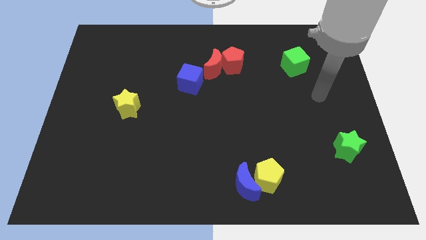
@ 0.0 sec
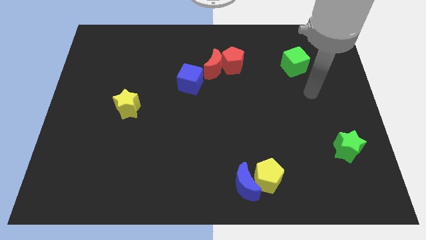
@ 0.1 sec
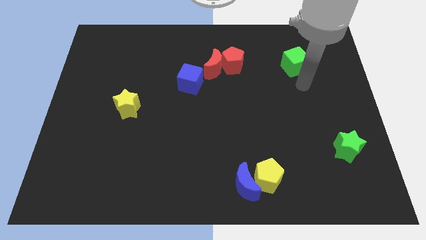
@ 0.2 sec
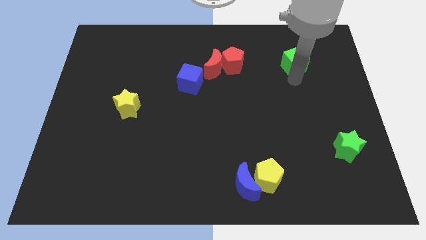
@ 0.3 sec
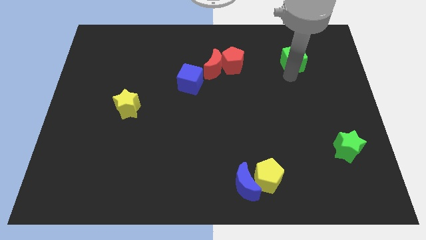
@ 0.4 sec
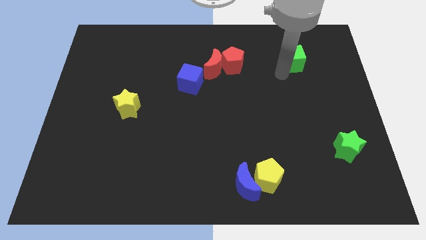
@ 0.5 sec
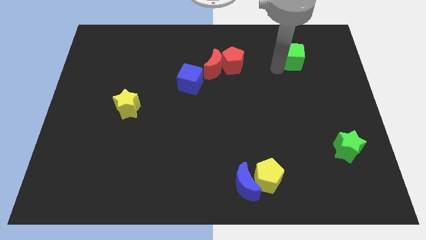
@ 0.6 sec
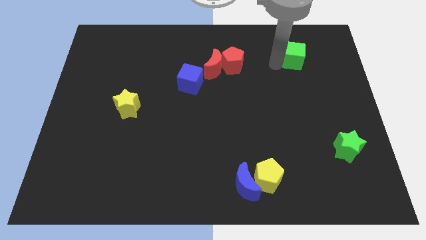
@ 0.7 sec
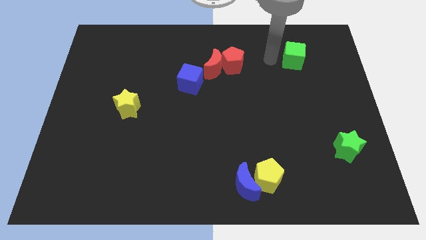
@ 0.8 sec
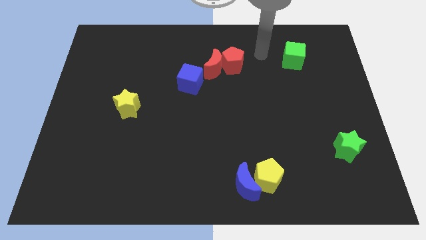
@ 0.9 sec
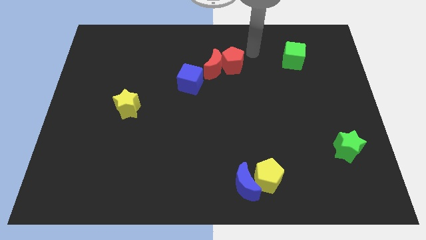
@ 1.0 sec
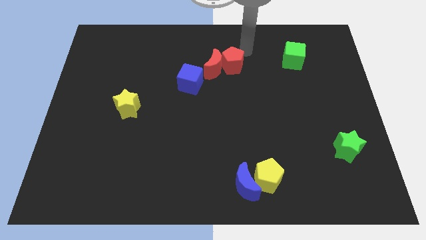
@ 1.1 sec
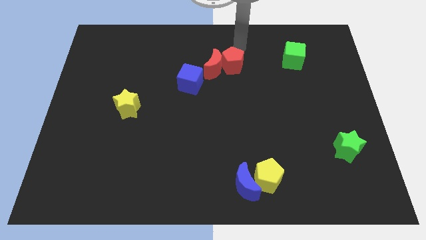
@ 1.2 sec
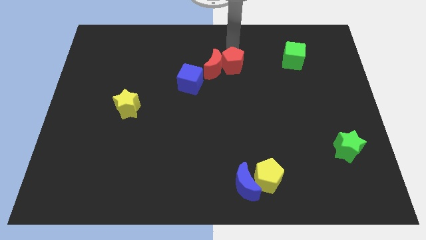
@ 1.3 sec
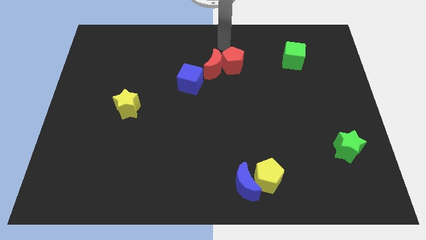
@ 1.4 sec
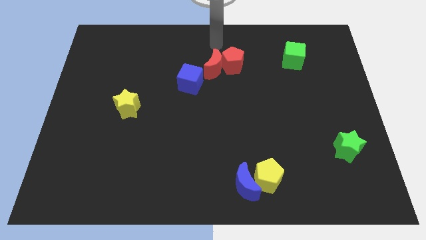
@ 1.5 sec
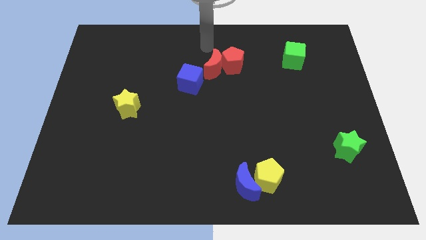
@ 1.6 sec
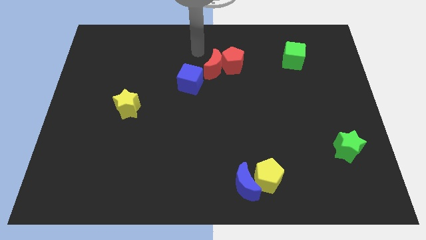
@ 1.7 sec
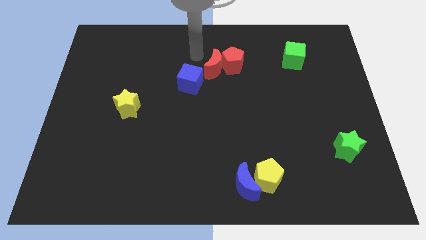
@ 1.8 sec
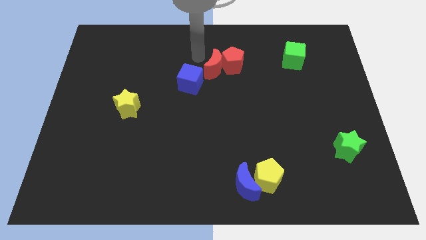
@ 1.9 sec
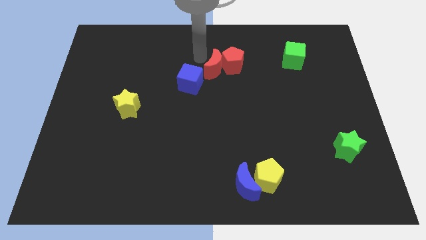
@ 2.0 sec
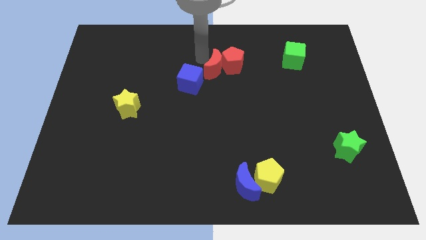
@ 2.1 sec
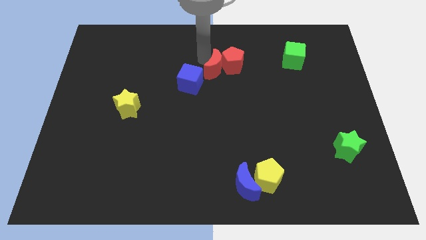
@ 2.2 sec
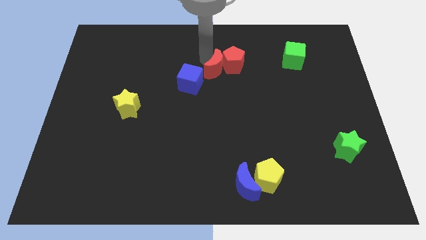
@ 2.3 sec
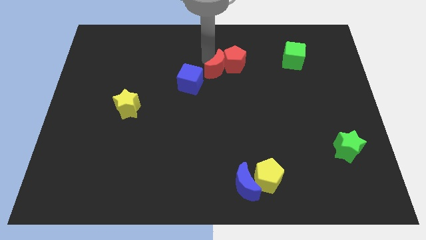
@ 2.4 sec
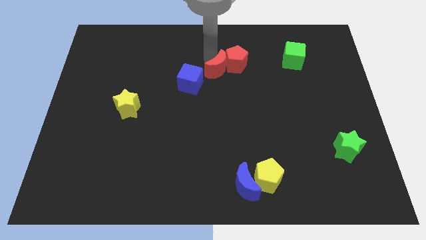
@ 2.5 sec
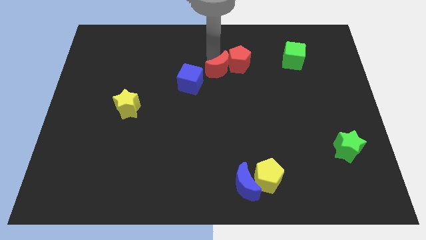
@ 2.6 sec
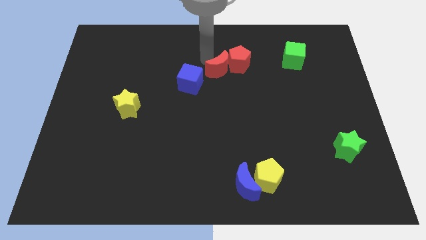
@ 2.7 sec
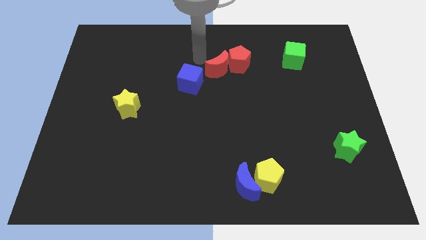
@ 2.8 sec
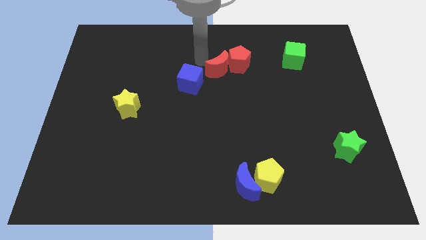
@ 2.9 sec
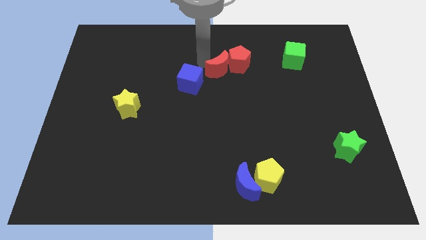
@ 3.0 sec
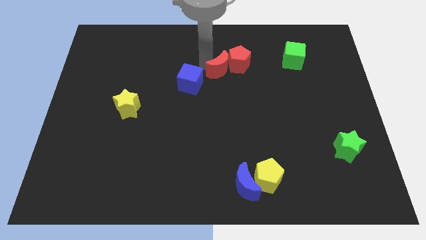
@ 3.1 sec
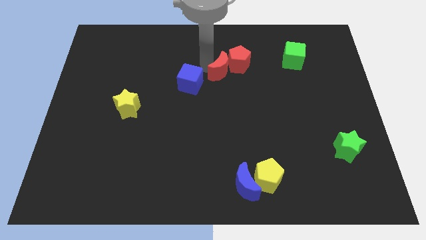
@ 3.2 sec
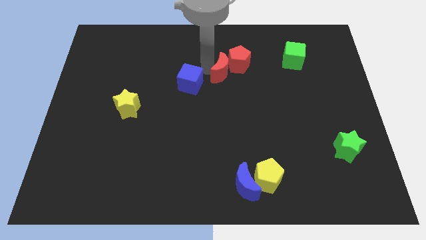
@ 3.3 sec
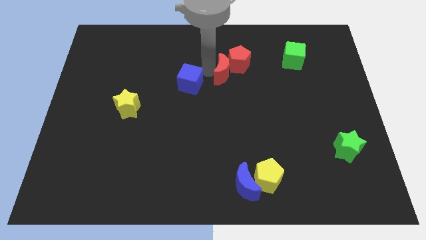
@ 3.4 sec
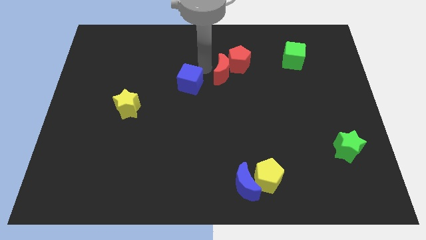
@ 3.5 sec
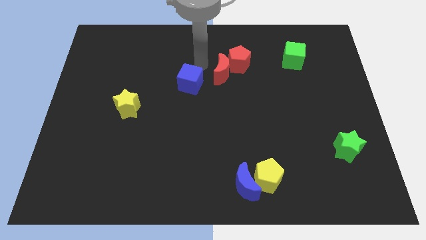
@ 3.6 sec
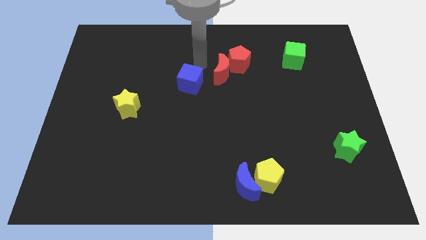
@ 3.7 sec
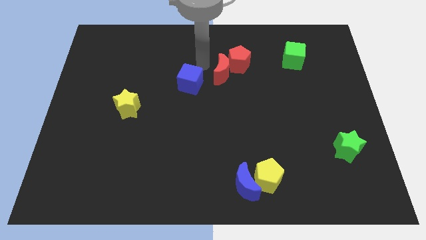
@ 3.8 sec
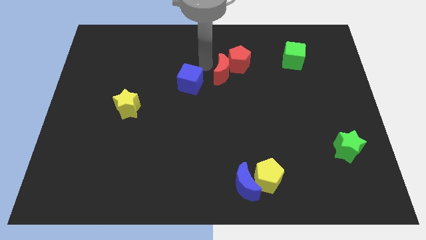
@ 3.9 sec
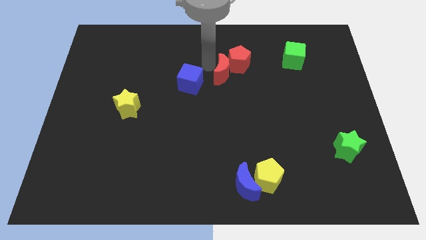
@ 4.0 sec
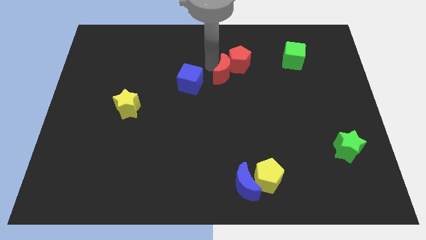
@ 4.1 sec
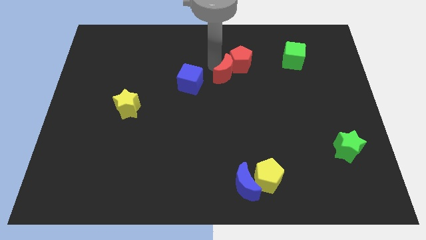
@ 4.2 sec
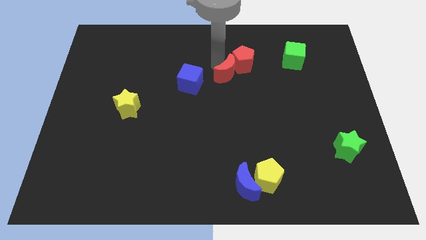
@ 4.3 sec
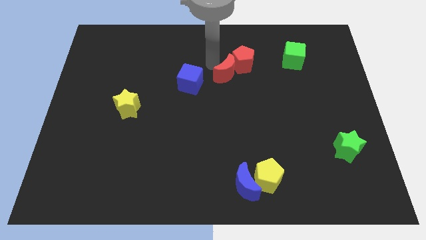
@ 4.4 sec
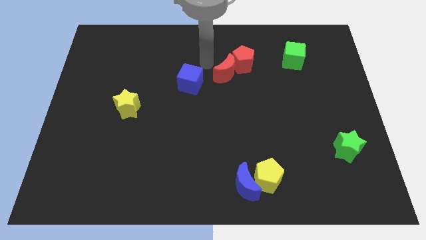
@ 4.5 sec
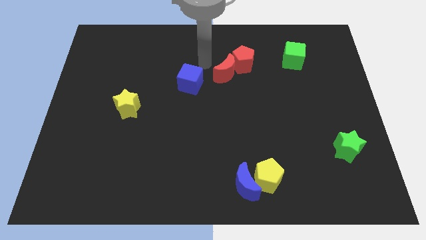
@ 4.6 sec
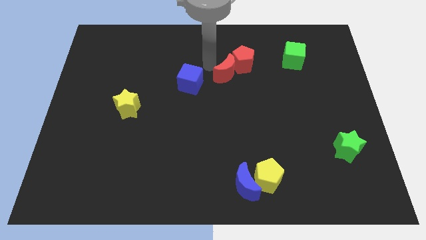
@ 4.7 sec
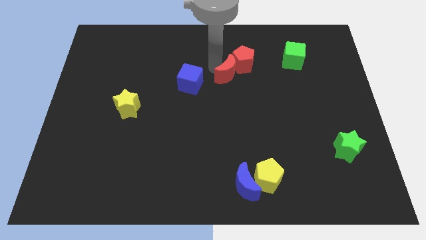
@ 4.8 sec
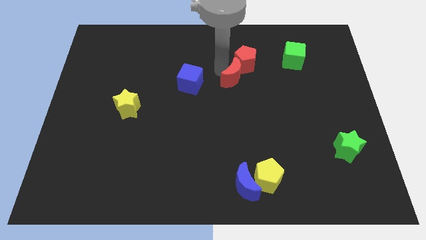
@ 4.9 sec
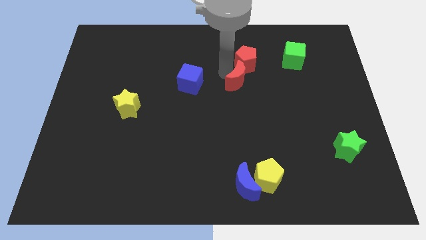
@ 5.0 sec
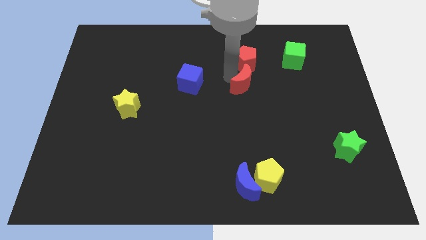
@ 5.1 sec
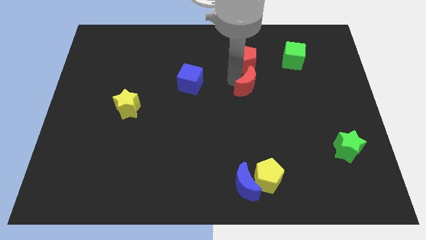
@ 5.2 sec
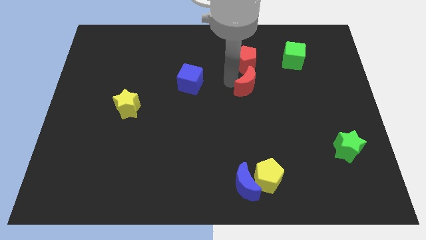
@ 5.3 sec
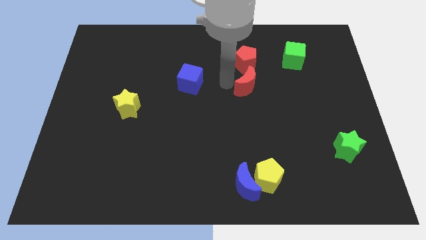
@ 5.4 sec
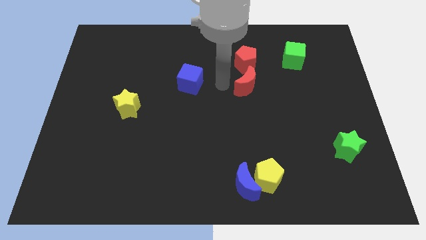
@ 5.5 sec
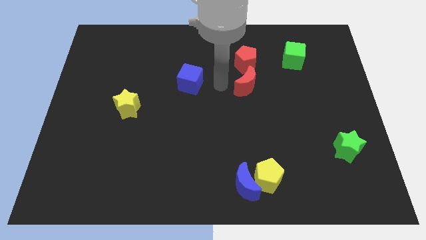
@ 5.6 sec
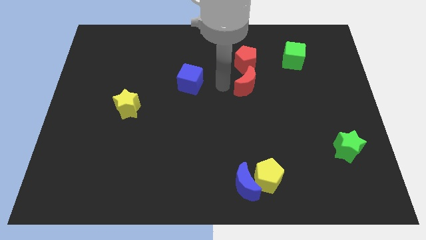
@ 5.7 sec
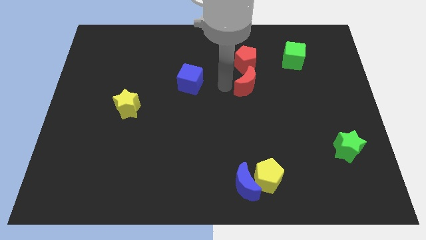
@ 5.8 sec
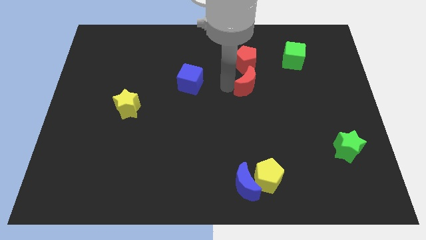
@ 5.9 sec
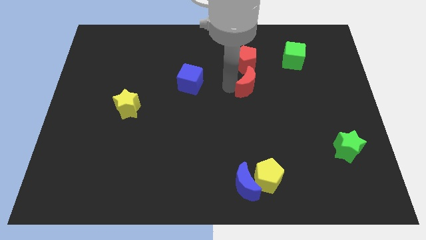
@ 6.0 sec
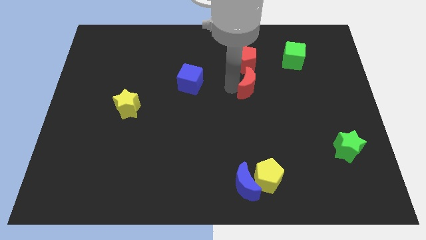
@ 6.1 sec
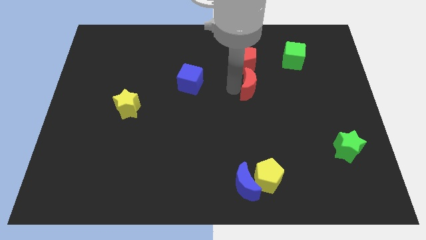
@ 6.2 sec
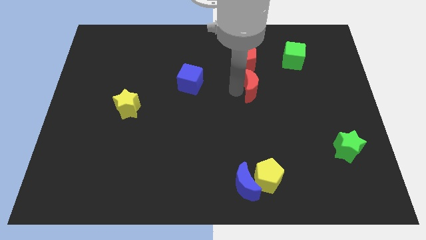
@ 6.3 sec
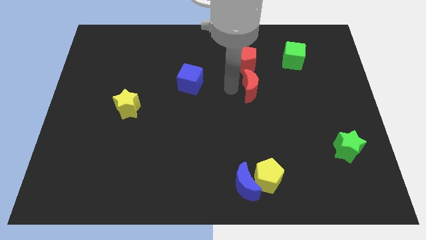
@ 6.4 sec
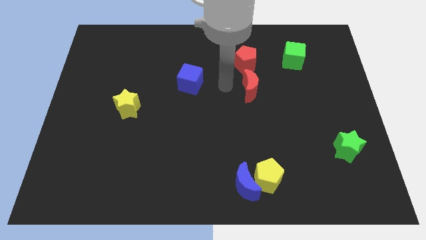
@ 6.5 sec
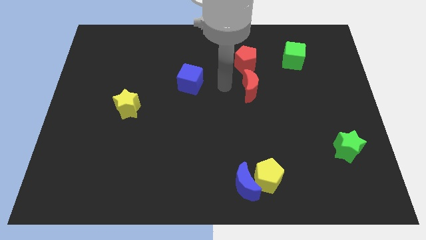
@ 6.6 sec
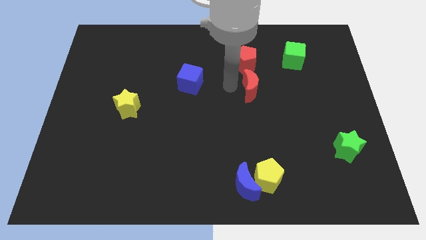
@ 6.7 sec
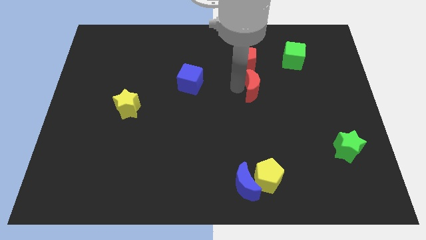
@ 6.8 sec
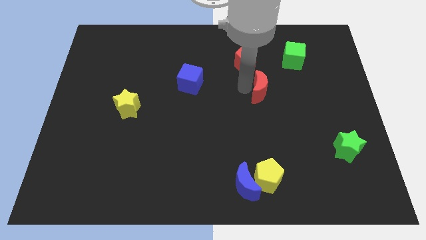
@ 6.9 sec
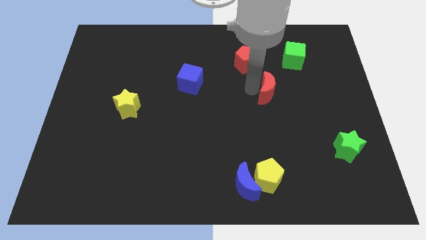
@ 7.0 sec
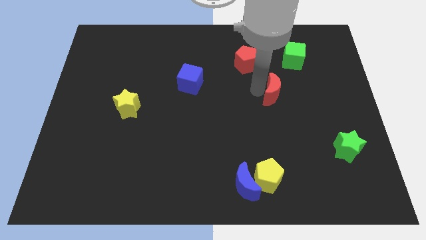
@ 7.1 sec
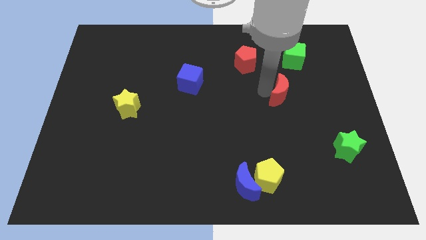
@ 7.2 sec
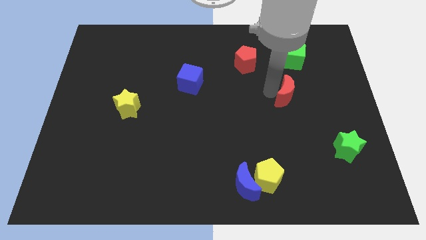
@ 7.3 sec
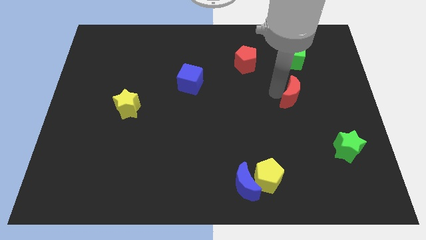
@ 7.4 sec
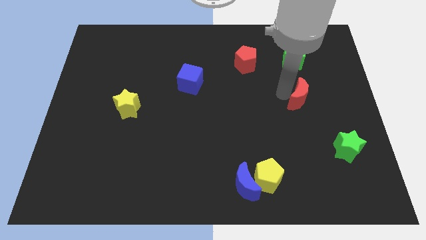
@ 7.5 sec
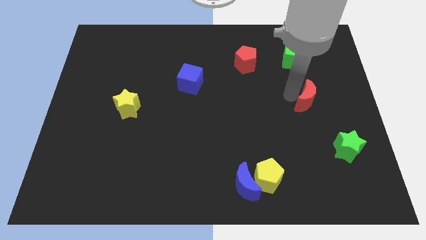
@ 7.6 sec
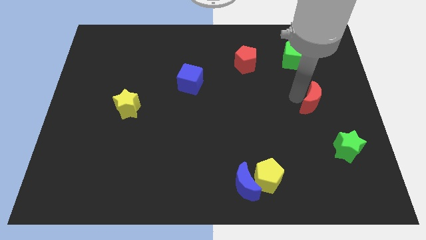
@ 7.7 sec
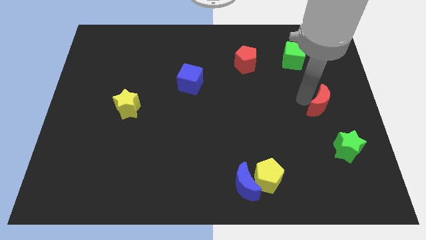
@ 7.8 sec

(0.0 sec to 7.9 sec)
move the red moon to the top of the green star
